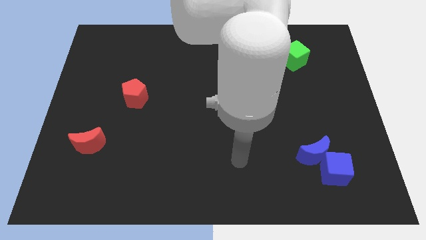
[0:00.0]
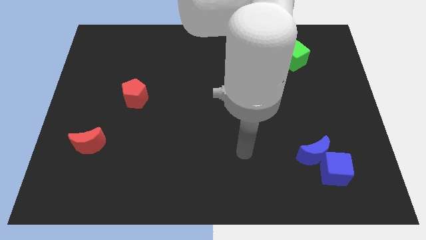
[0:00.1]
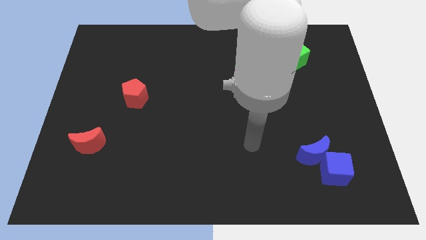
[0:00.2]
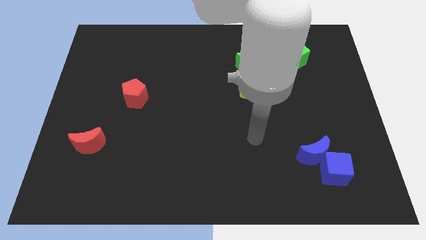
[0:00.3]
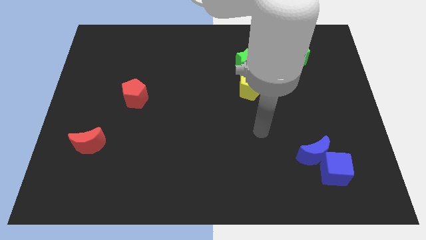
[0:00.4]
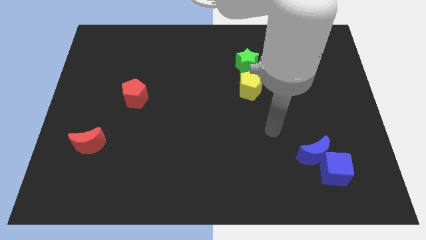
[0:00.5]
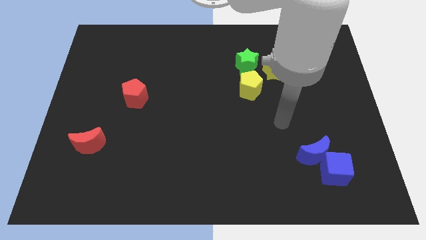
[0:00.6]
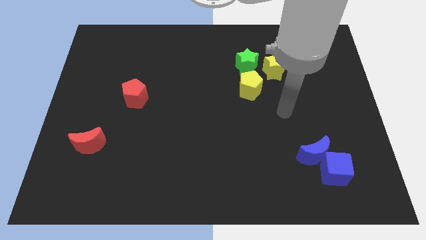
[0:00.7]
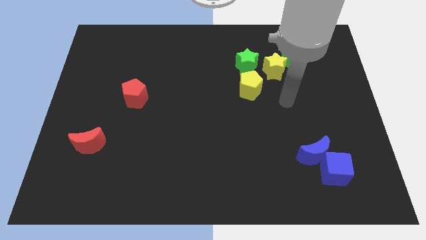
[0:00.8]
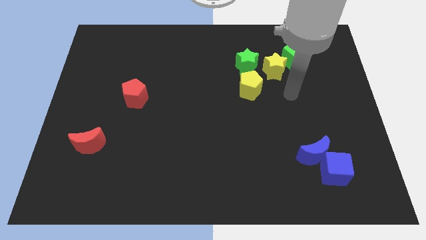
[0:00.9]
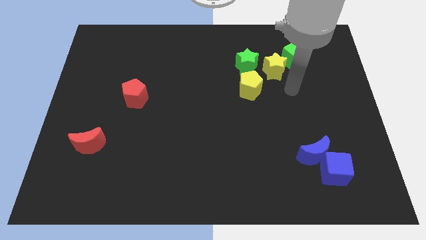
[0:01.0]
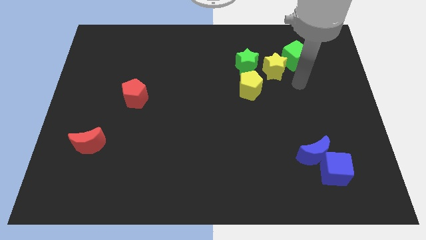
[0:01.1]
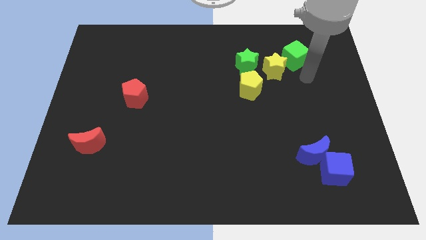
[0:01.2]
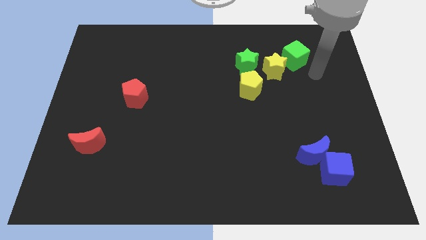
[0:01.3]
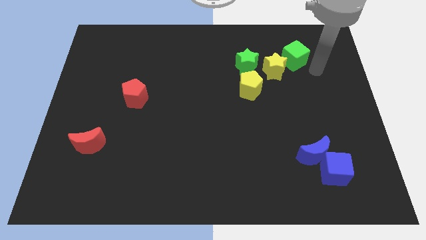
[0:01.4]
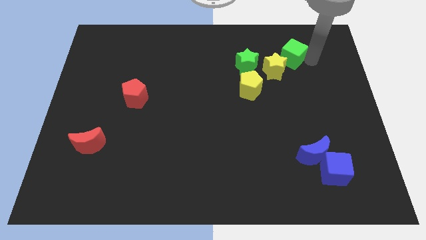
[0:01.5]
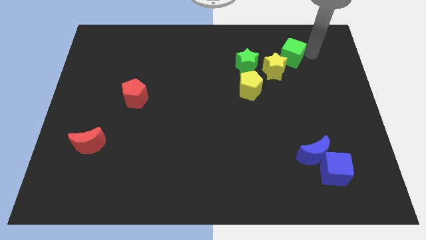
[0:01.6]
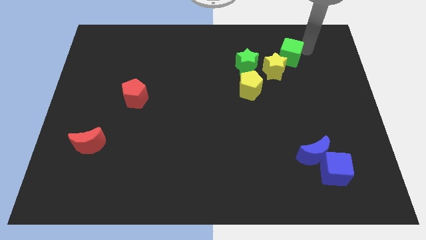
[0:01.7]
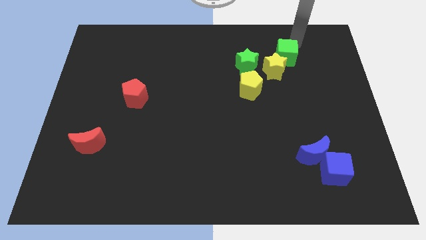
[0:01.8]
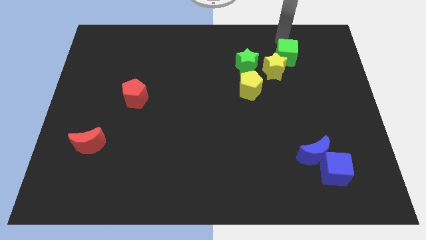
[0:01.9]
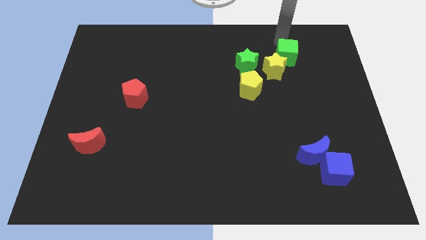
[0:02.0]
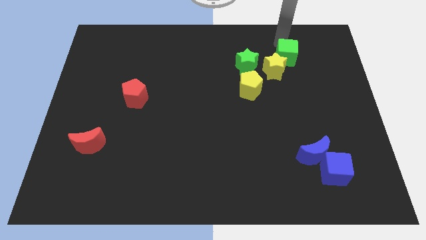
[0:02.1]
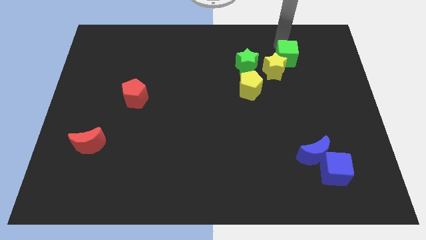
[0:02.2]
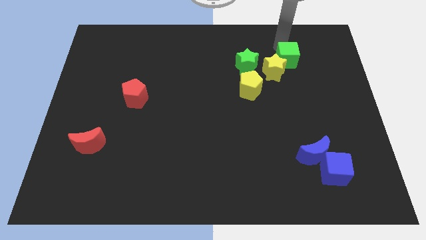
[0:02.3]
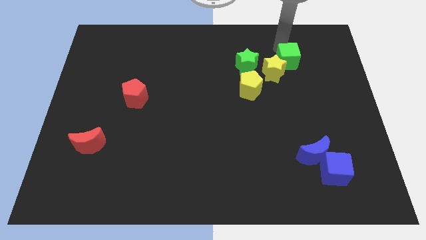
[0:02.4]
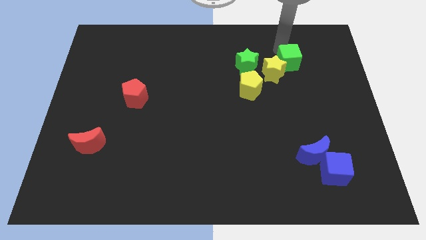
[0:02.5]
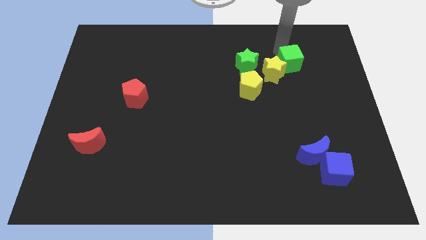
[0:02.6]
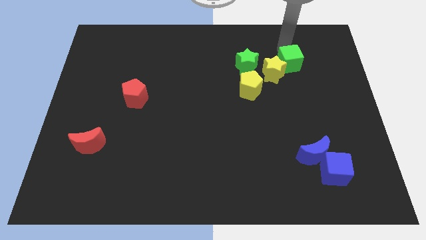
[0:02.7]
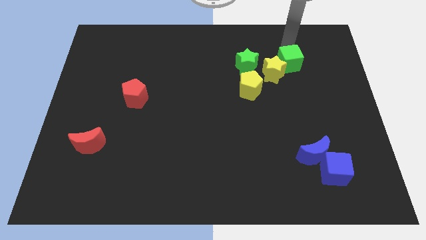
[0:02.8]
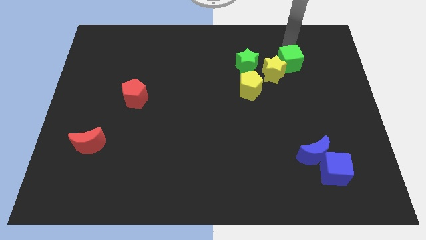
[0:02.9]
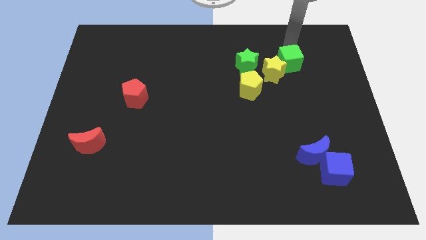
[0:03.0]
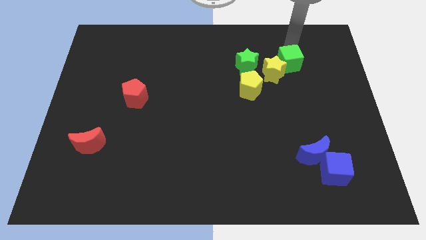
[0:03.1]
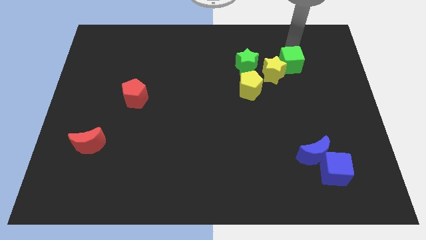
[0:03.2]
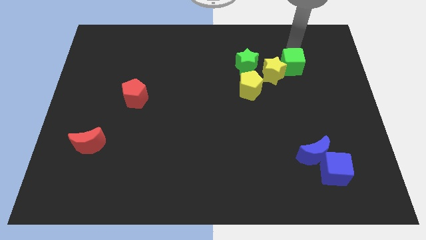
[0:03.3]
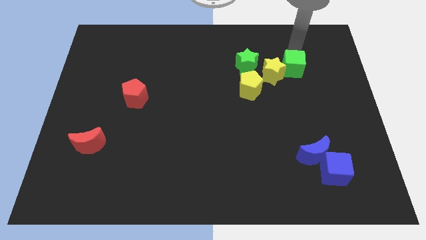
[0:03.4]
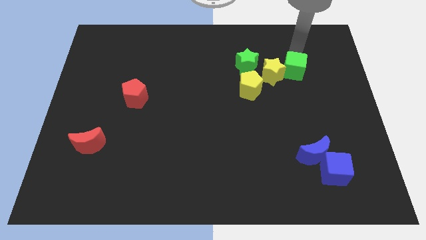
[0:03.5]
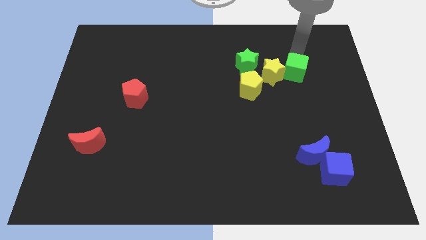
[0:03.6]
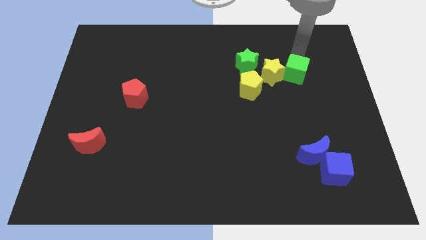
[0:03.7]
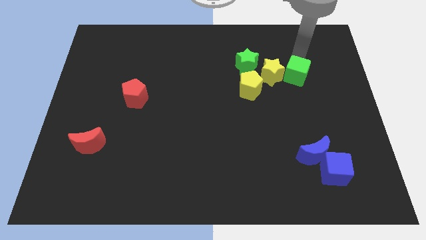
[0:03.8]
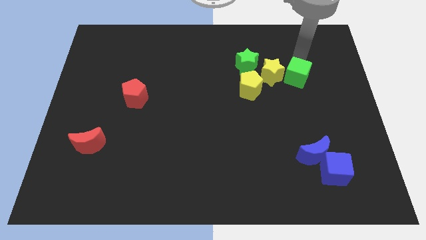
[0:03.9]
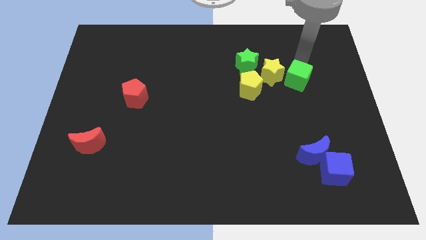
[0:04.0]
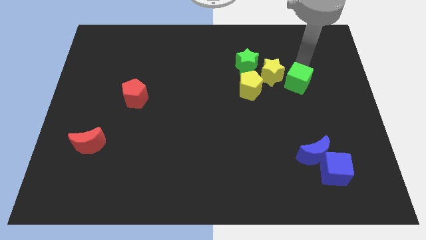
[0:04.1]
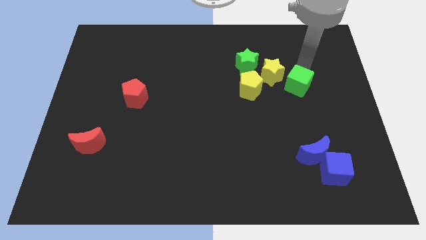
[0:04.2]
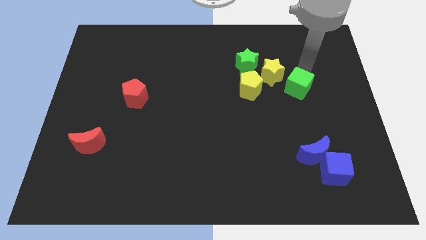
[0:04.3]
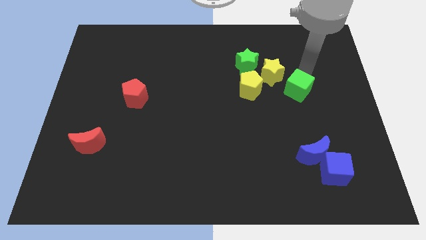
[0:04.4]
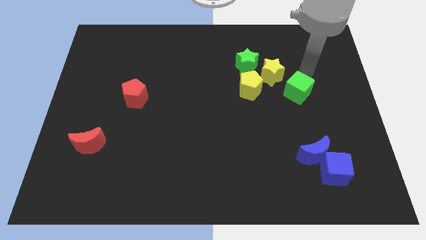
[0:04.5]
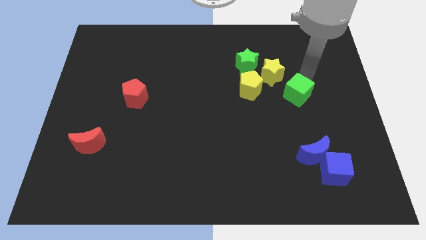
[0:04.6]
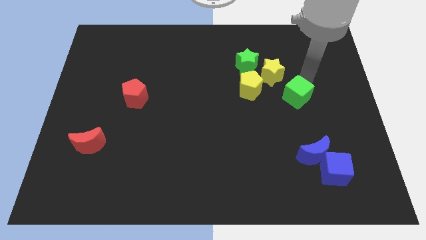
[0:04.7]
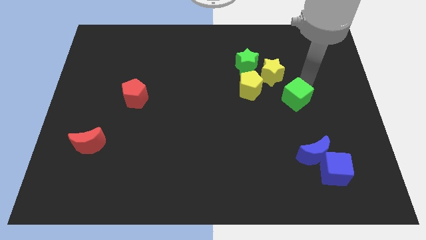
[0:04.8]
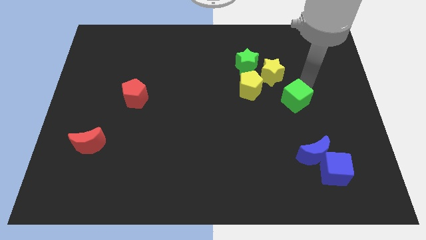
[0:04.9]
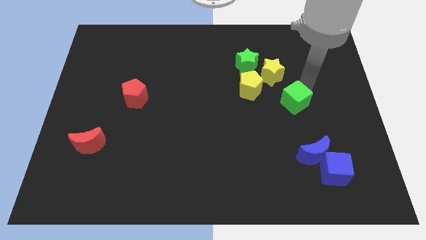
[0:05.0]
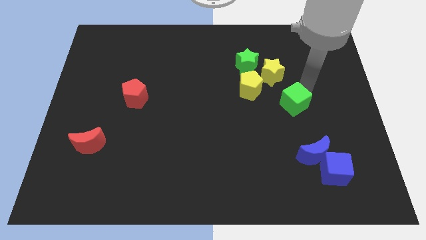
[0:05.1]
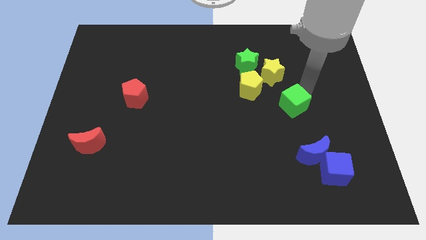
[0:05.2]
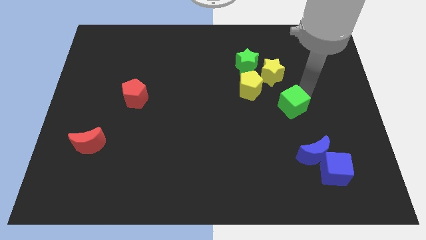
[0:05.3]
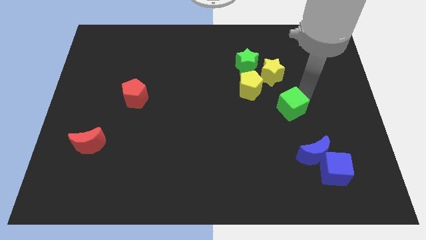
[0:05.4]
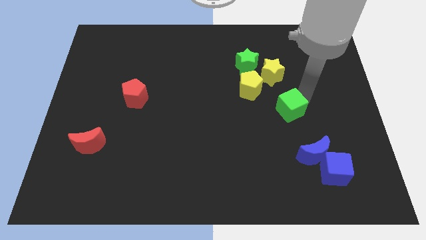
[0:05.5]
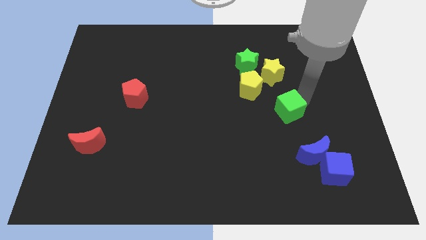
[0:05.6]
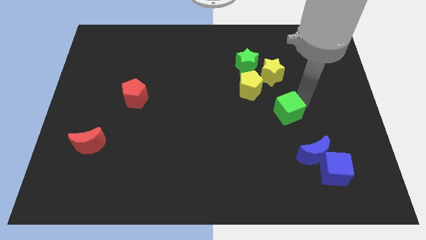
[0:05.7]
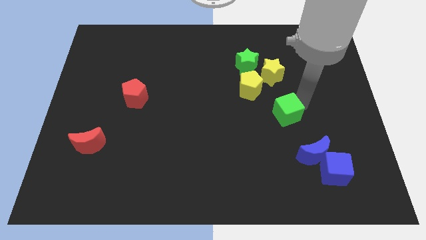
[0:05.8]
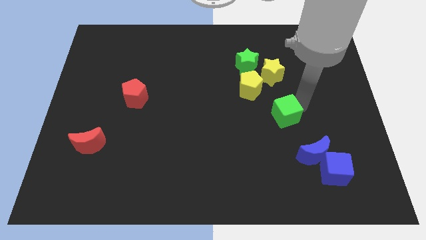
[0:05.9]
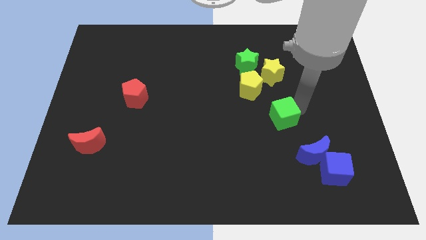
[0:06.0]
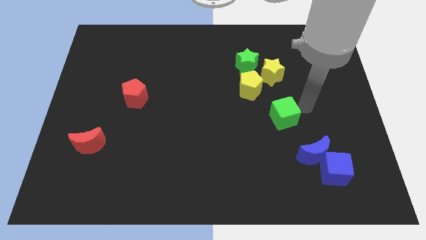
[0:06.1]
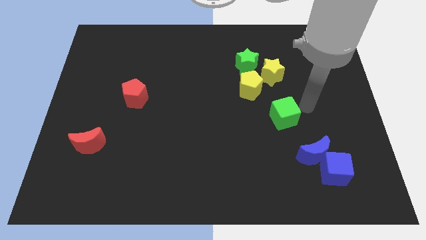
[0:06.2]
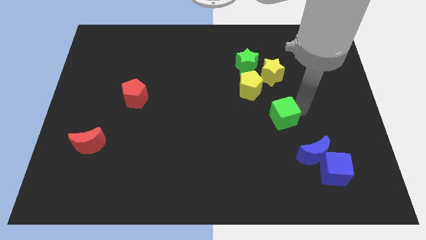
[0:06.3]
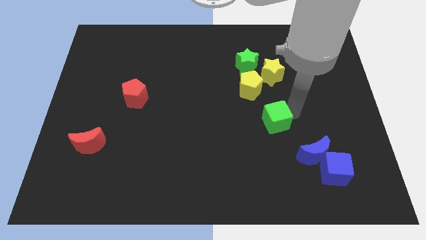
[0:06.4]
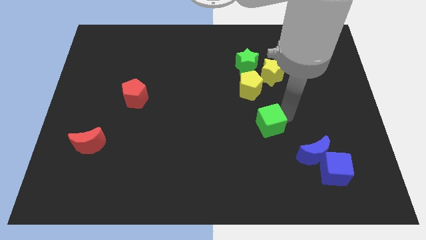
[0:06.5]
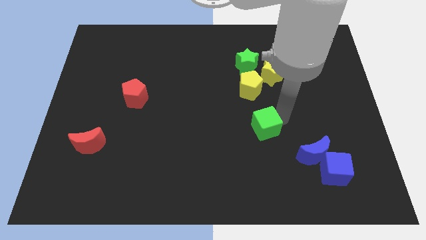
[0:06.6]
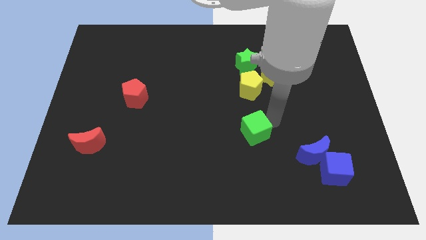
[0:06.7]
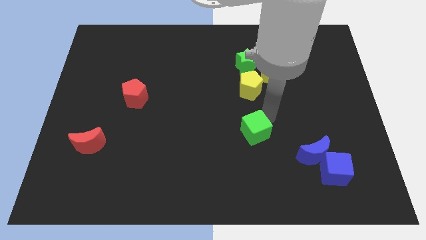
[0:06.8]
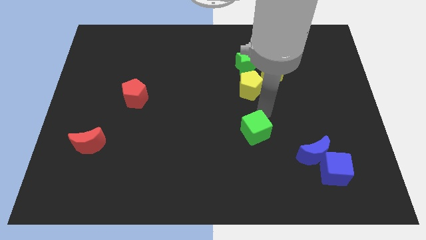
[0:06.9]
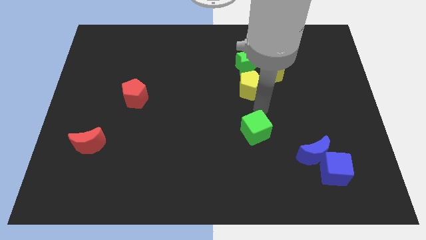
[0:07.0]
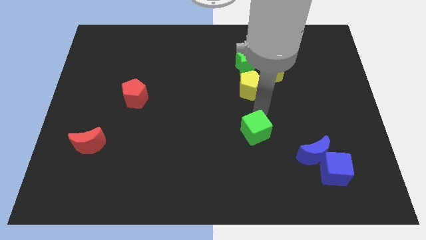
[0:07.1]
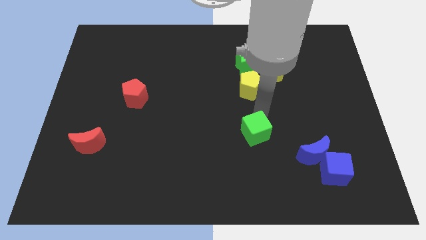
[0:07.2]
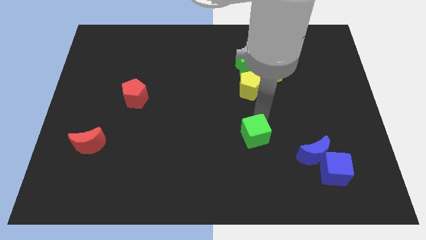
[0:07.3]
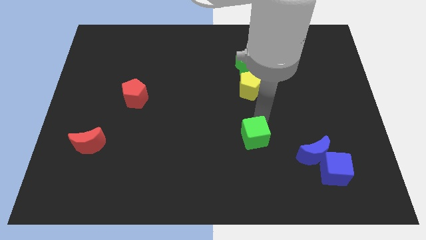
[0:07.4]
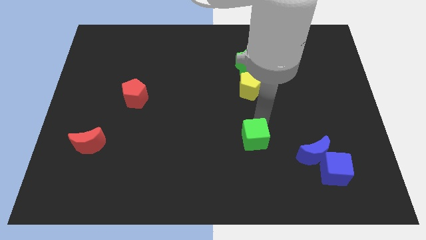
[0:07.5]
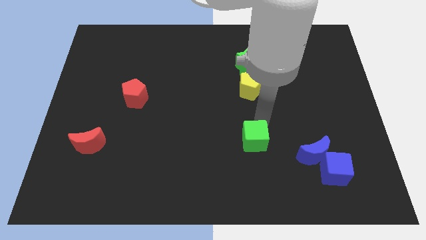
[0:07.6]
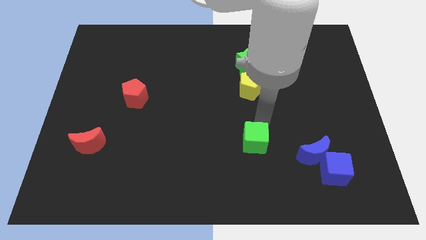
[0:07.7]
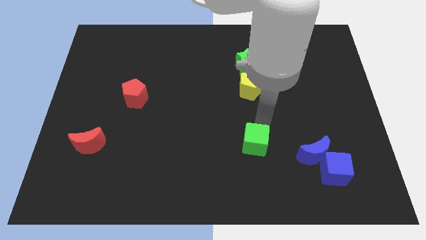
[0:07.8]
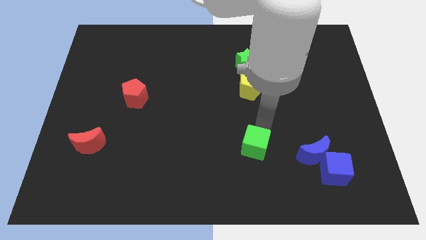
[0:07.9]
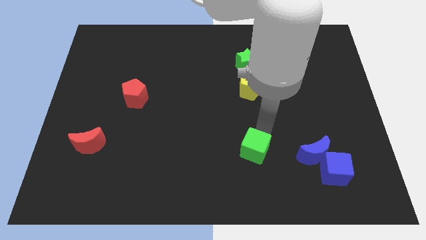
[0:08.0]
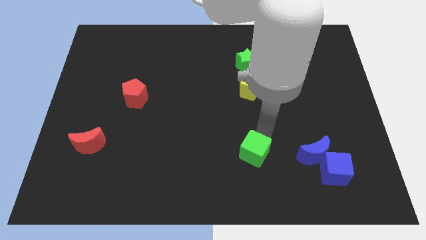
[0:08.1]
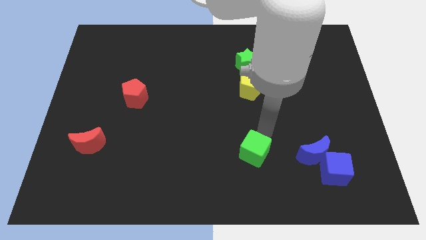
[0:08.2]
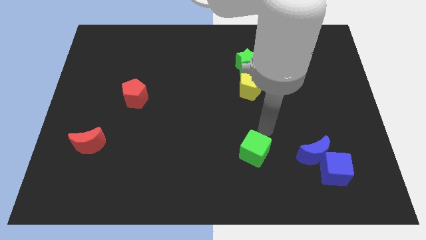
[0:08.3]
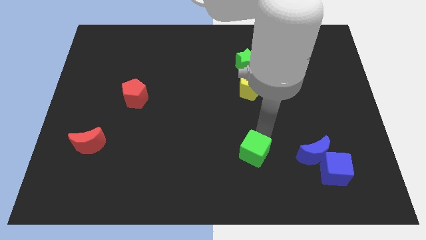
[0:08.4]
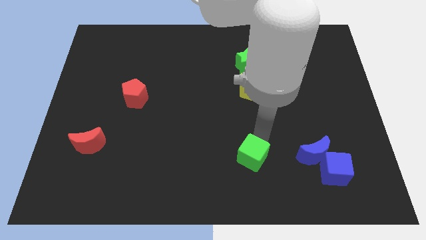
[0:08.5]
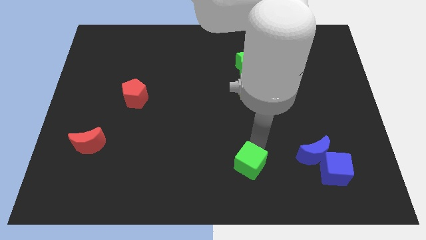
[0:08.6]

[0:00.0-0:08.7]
push the green cube to the bottom side
